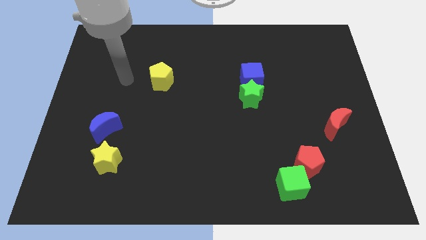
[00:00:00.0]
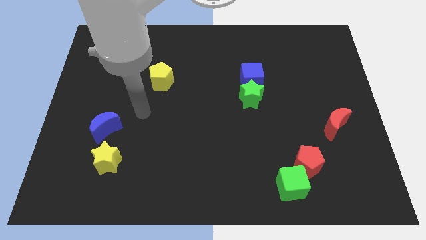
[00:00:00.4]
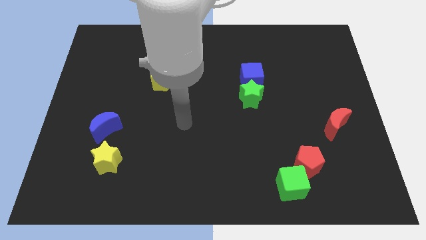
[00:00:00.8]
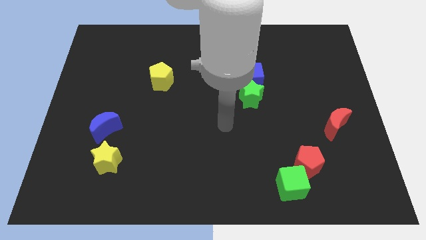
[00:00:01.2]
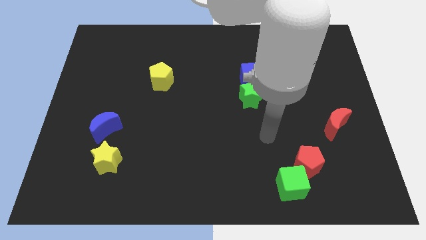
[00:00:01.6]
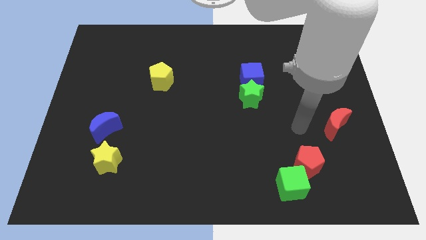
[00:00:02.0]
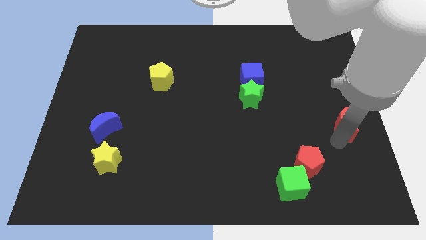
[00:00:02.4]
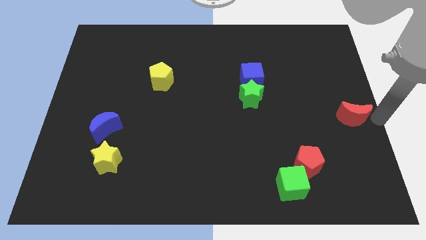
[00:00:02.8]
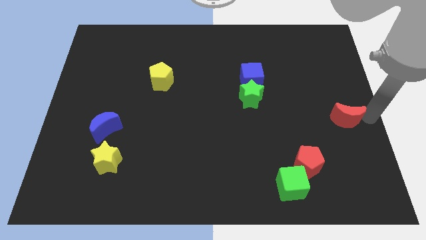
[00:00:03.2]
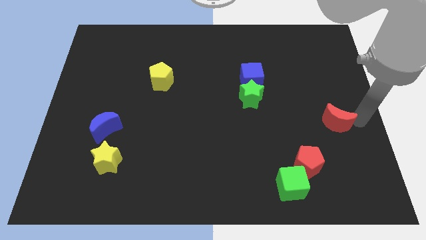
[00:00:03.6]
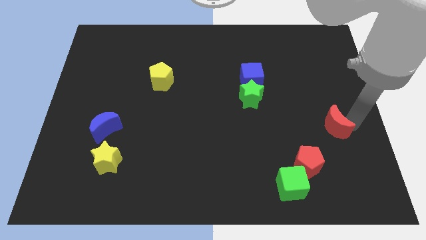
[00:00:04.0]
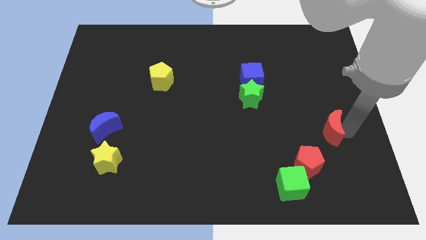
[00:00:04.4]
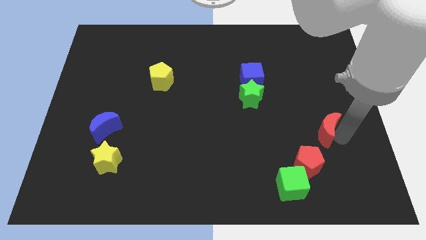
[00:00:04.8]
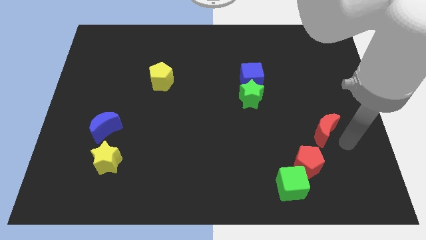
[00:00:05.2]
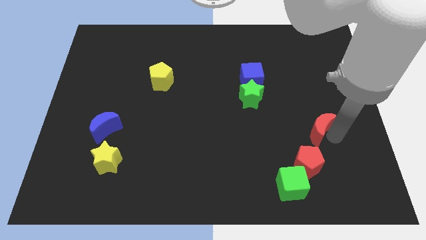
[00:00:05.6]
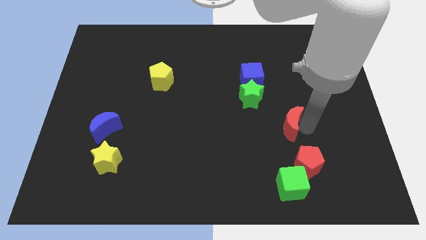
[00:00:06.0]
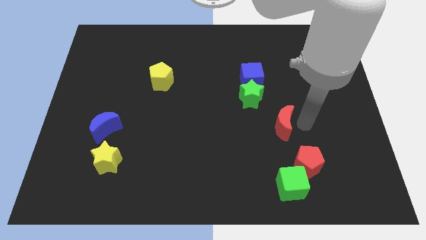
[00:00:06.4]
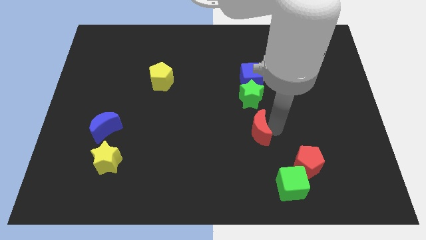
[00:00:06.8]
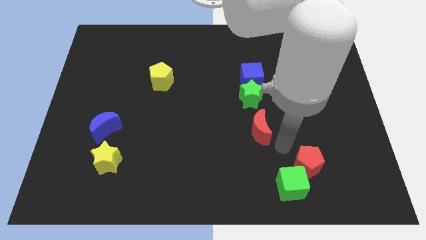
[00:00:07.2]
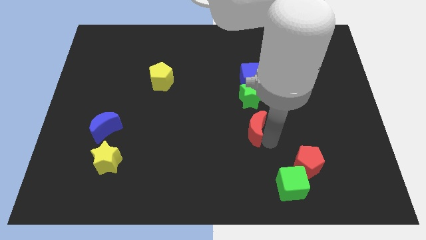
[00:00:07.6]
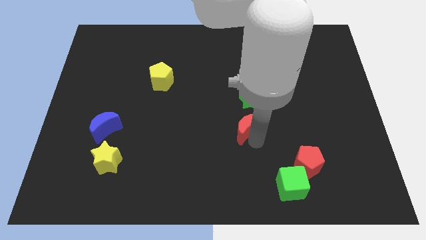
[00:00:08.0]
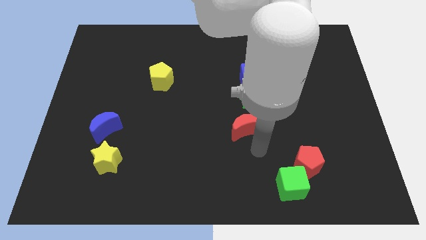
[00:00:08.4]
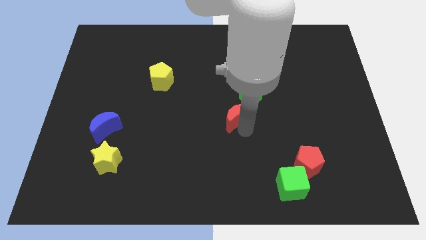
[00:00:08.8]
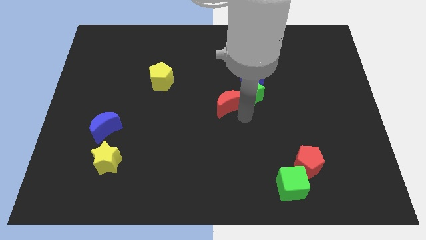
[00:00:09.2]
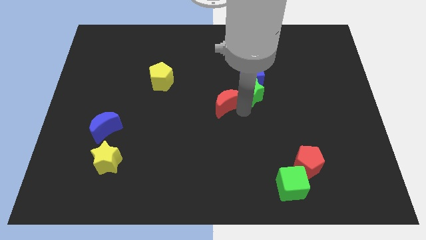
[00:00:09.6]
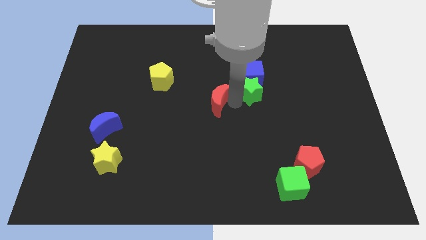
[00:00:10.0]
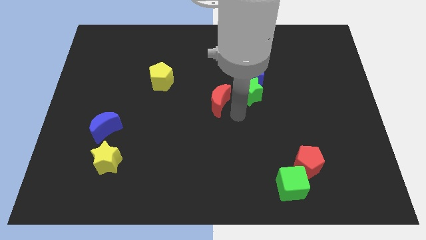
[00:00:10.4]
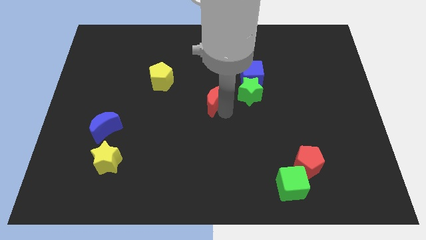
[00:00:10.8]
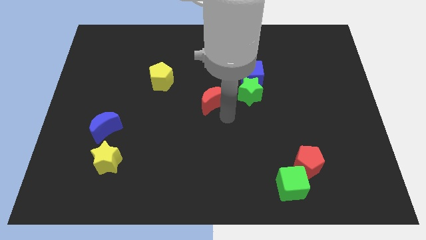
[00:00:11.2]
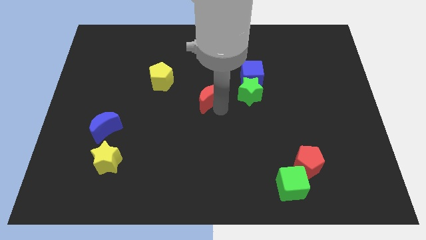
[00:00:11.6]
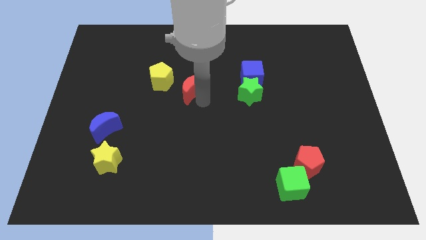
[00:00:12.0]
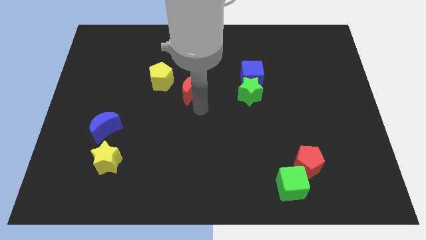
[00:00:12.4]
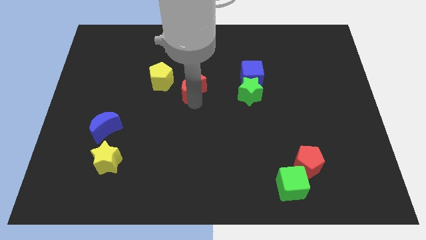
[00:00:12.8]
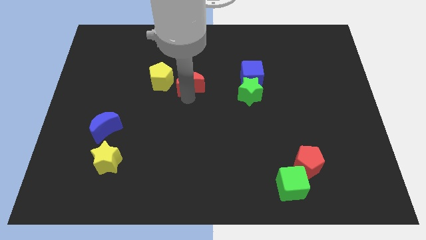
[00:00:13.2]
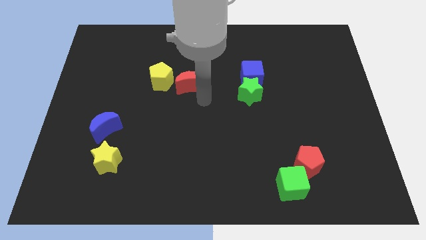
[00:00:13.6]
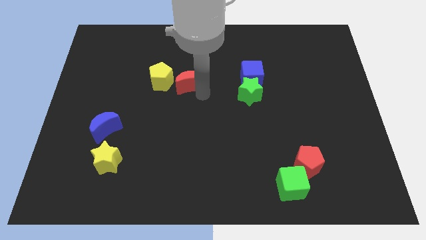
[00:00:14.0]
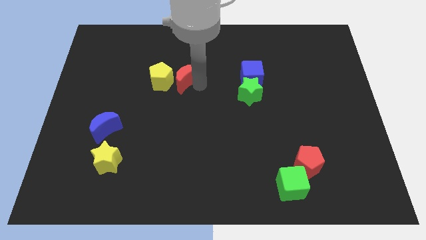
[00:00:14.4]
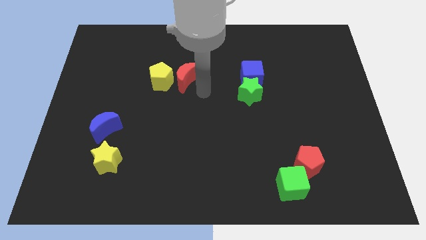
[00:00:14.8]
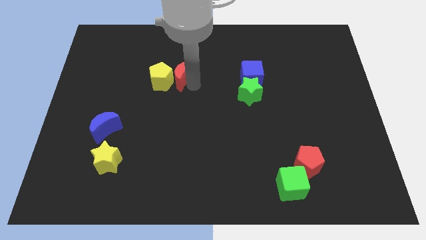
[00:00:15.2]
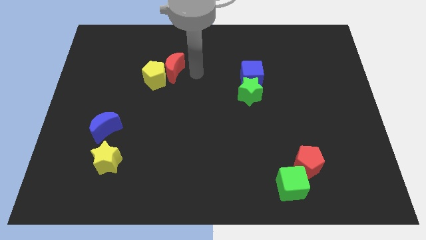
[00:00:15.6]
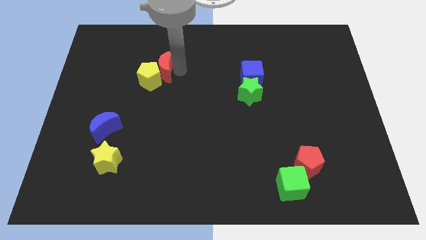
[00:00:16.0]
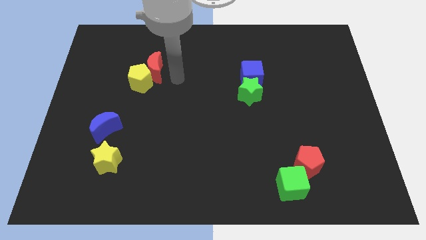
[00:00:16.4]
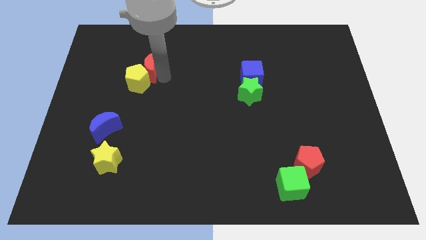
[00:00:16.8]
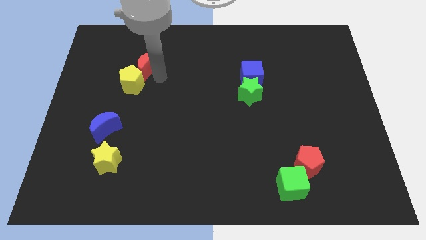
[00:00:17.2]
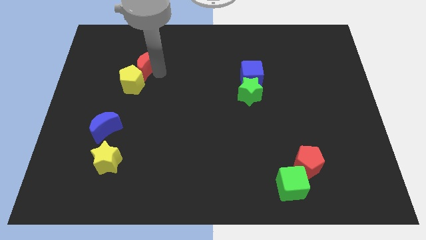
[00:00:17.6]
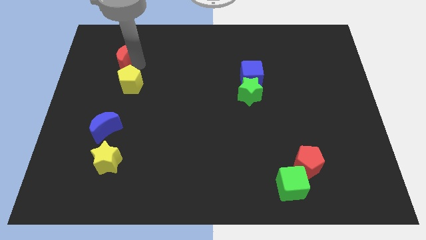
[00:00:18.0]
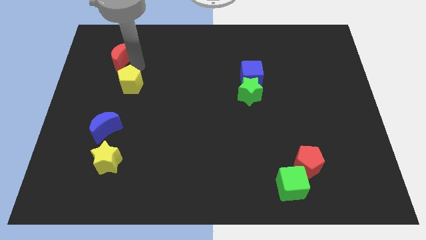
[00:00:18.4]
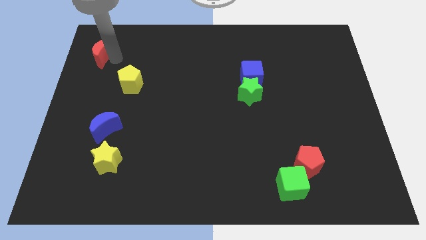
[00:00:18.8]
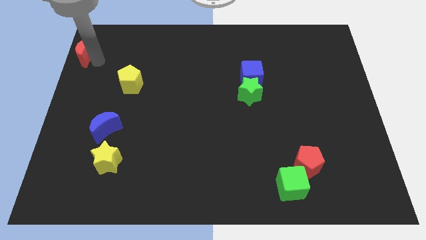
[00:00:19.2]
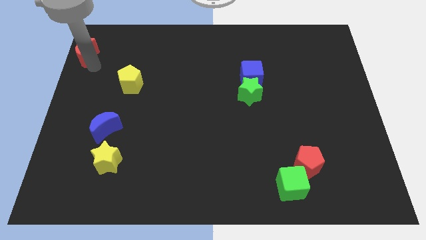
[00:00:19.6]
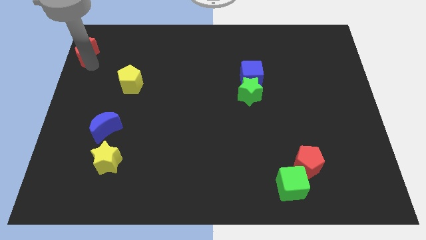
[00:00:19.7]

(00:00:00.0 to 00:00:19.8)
put the red moon to the top left of the board

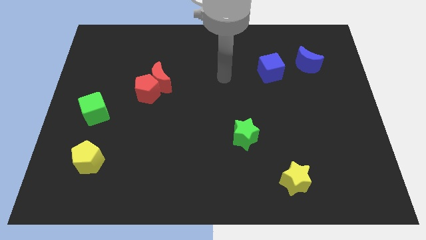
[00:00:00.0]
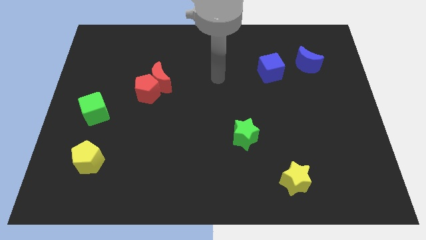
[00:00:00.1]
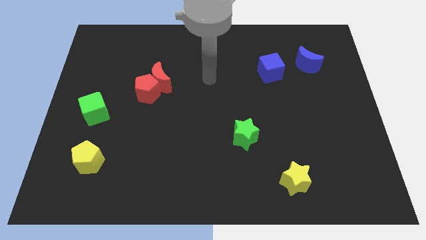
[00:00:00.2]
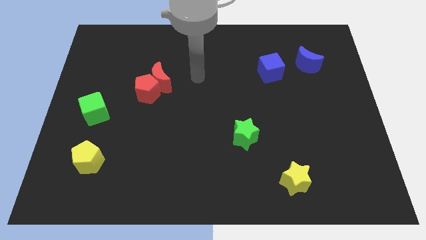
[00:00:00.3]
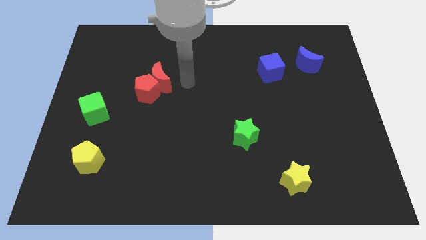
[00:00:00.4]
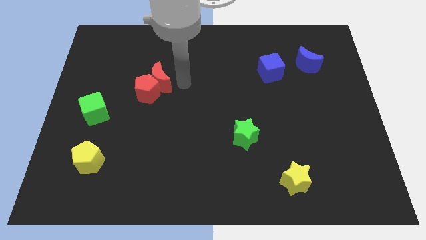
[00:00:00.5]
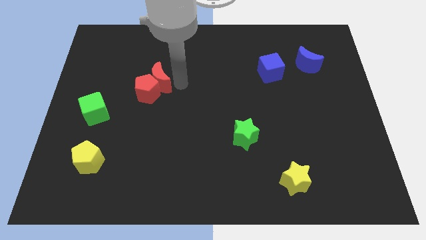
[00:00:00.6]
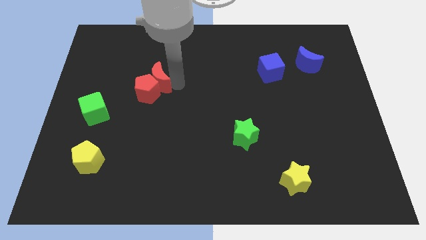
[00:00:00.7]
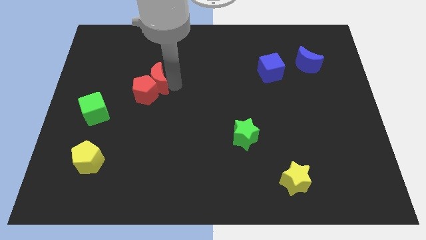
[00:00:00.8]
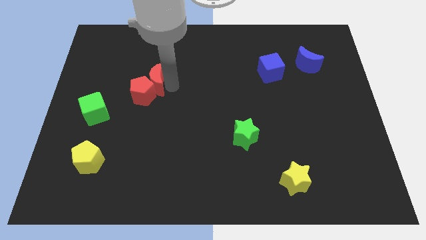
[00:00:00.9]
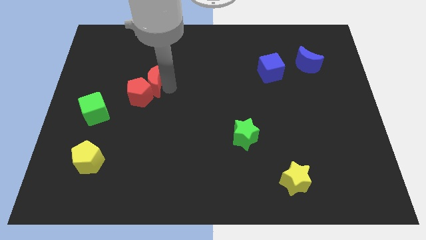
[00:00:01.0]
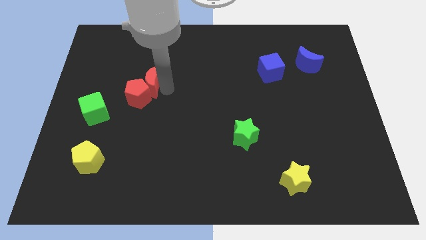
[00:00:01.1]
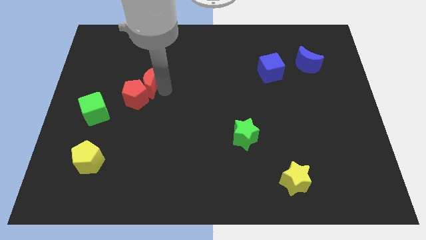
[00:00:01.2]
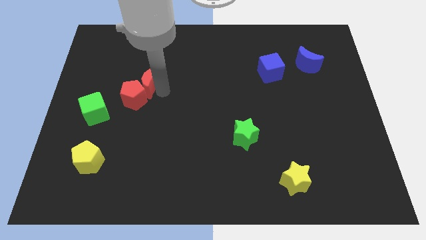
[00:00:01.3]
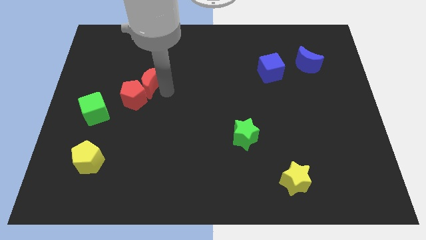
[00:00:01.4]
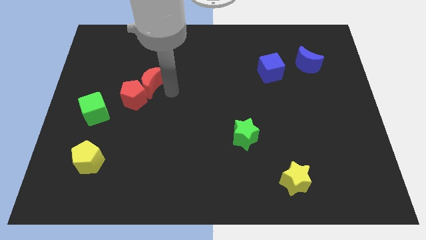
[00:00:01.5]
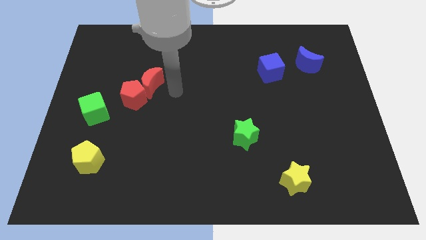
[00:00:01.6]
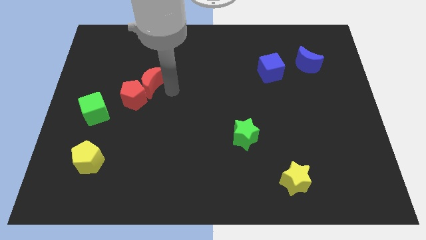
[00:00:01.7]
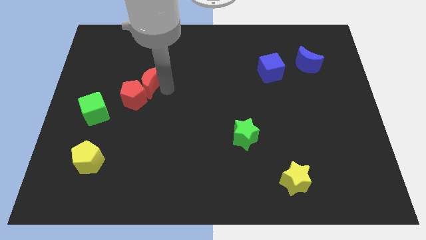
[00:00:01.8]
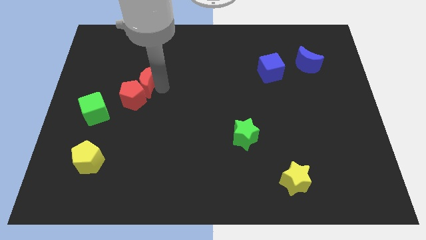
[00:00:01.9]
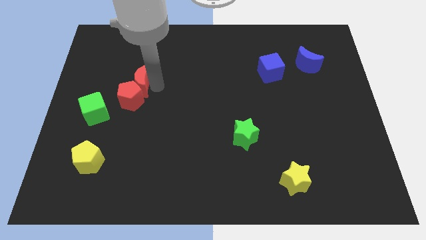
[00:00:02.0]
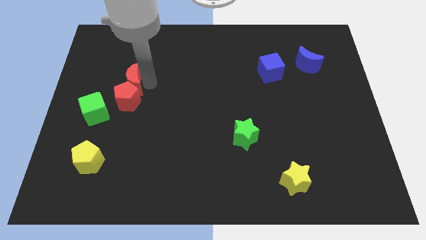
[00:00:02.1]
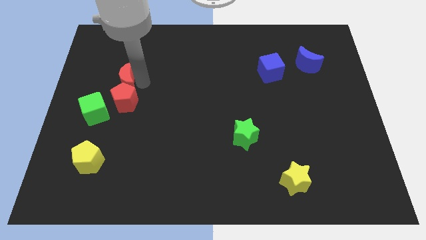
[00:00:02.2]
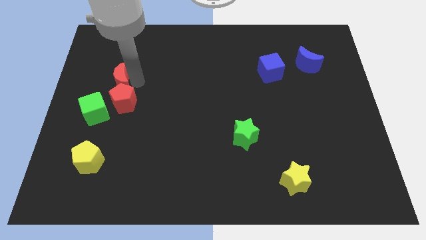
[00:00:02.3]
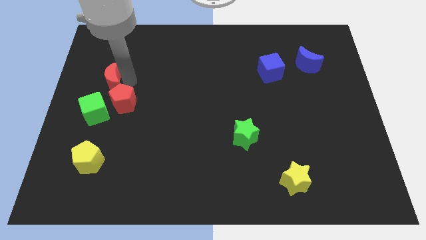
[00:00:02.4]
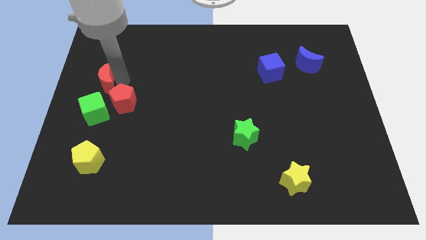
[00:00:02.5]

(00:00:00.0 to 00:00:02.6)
slide the red moon to the left side
